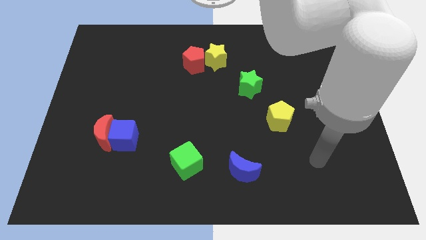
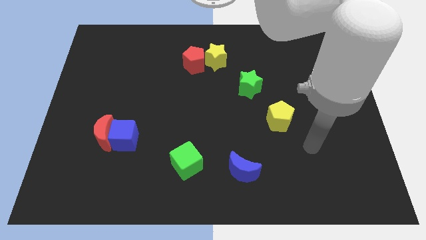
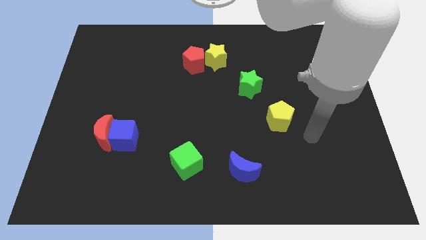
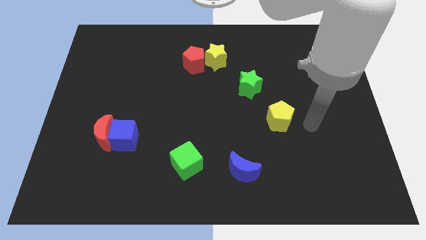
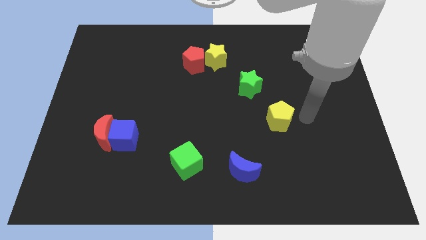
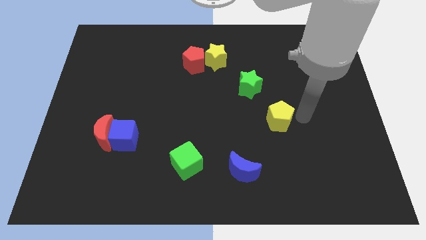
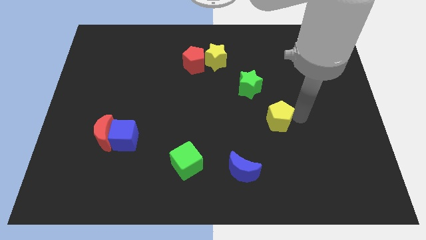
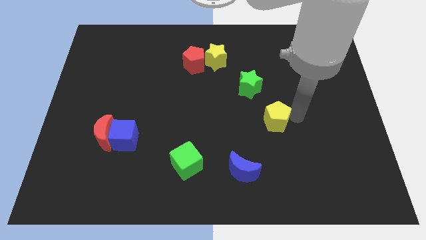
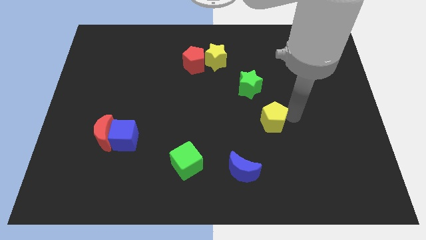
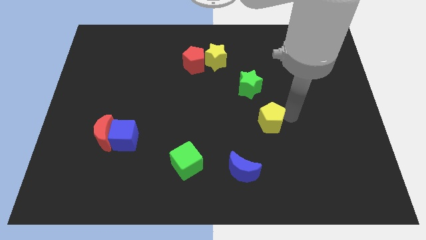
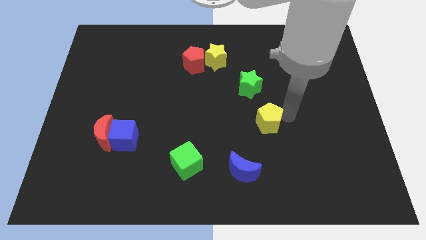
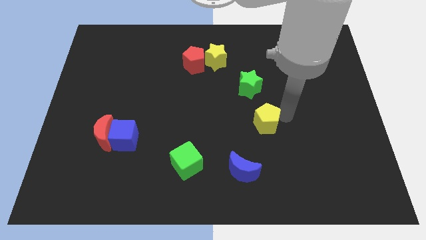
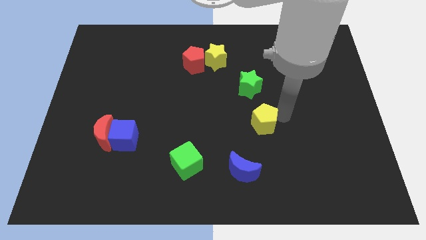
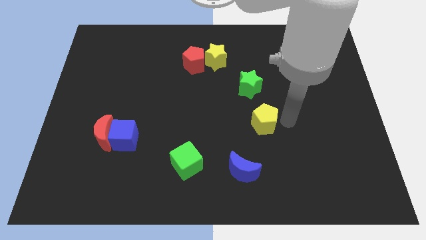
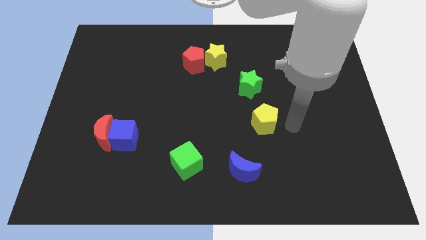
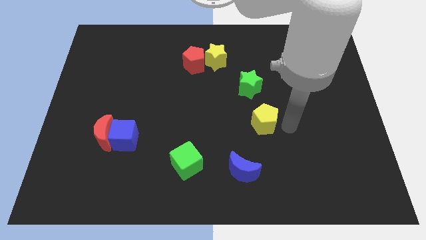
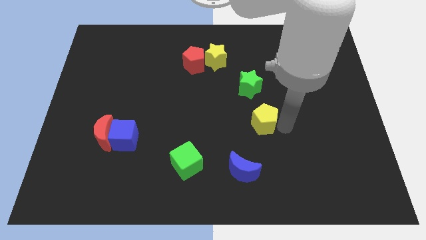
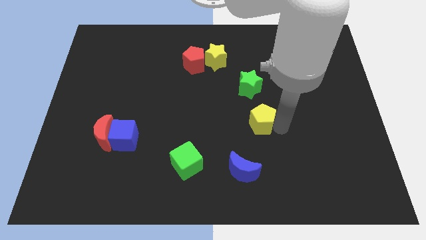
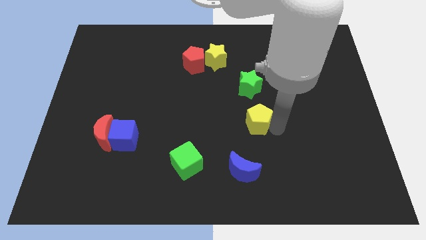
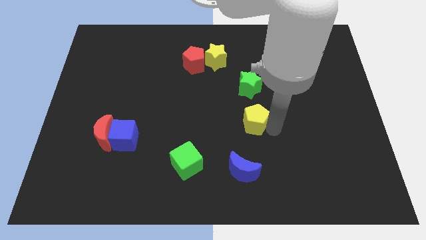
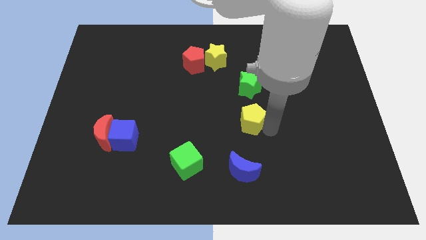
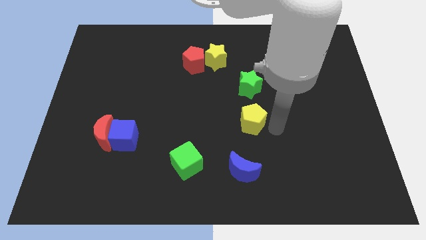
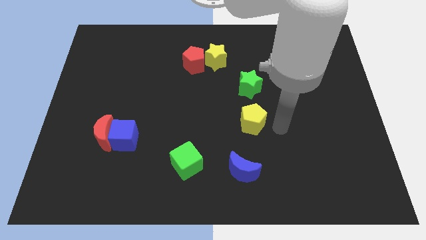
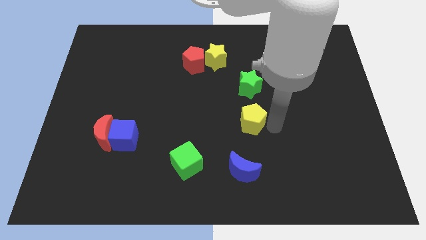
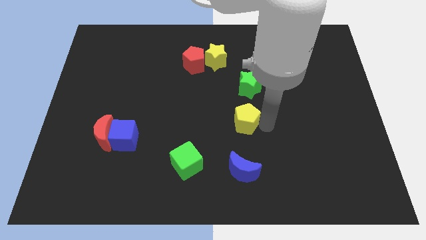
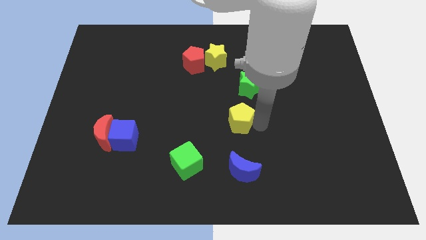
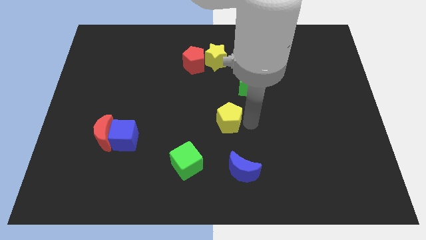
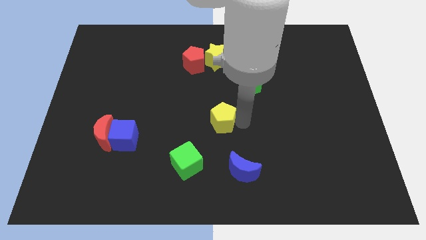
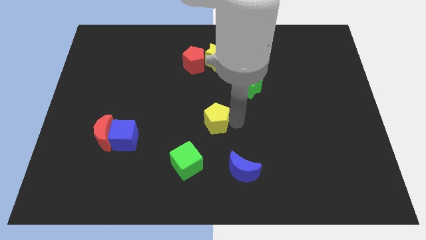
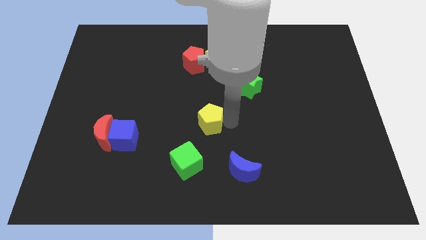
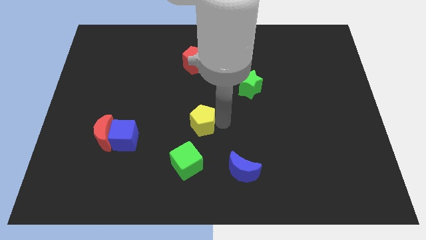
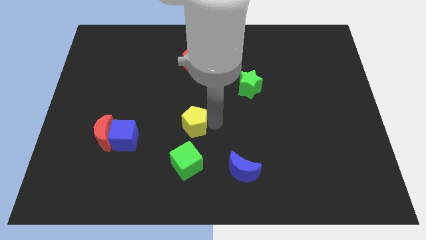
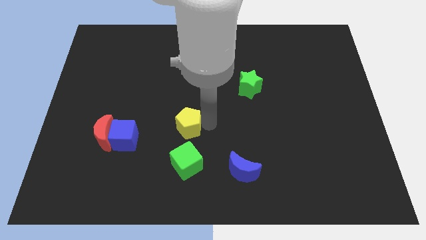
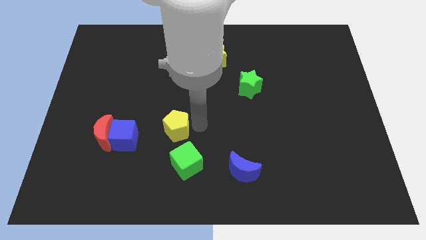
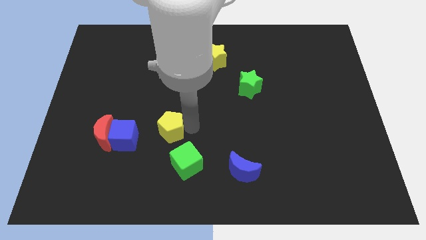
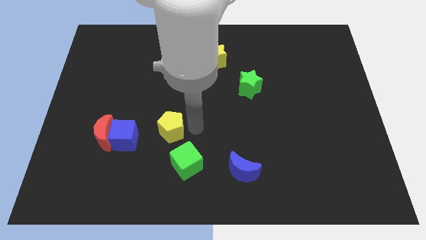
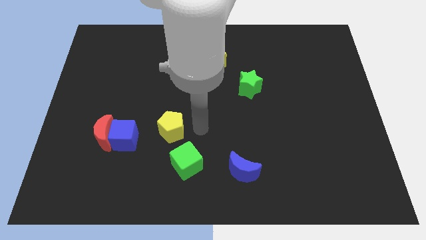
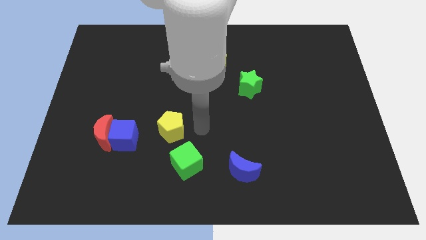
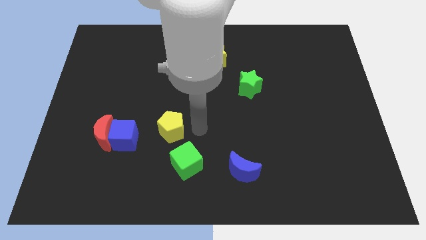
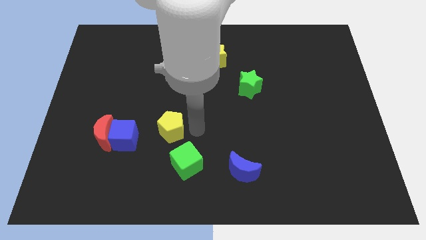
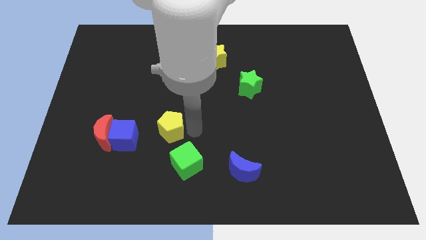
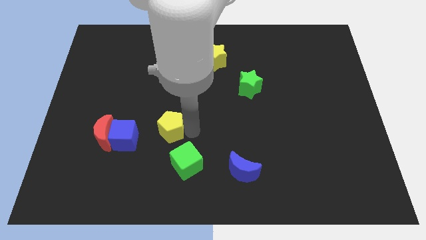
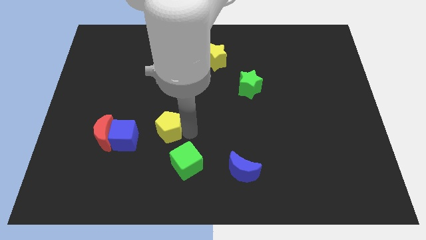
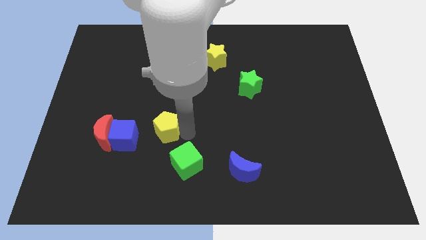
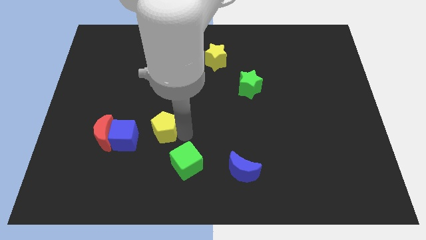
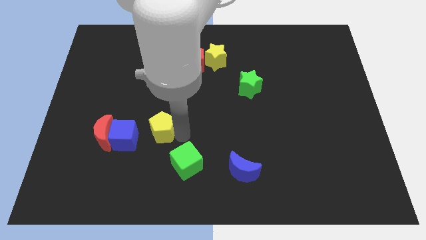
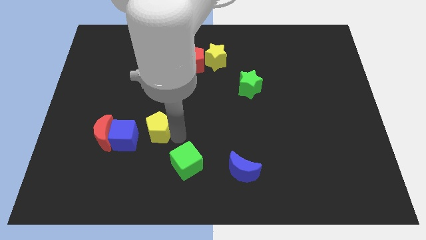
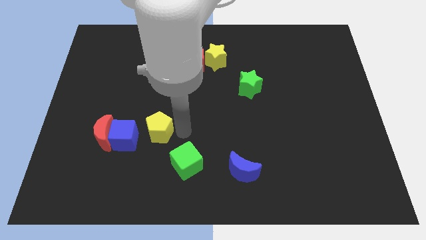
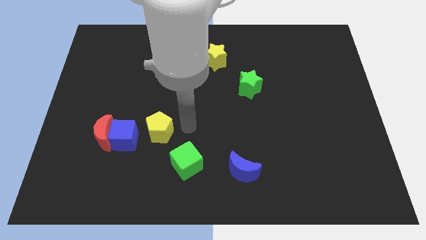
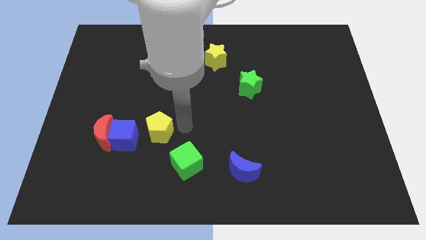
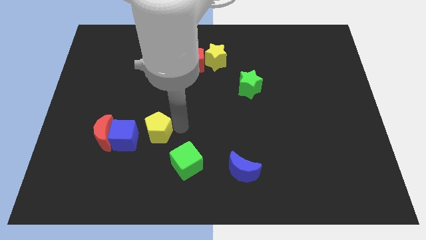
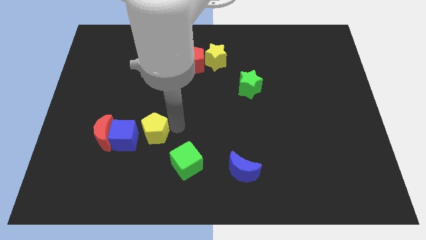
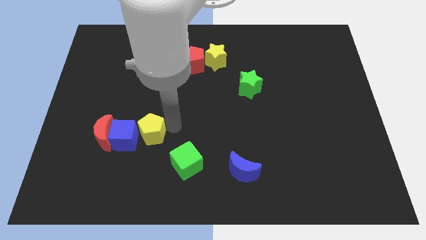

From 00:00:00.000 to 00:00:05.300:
push the yellow pentagon to the blue cube

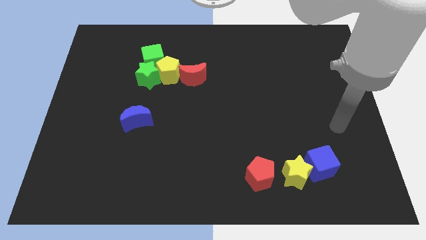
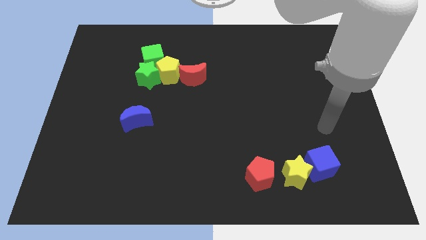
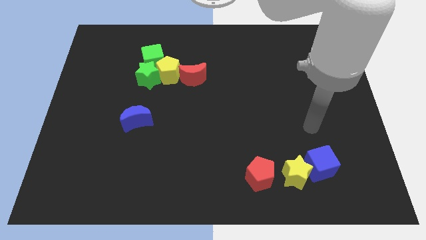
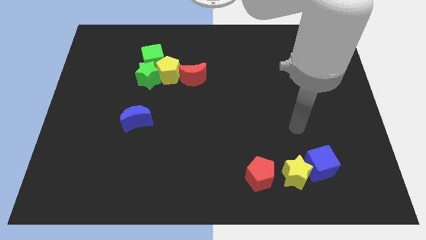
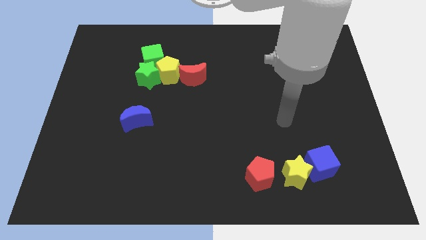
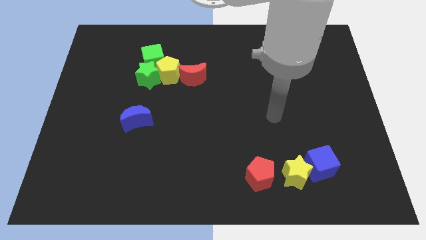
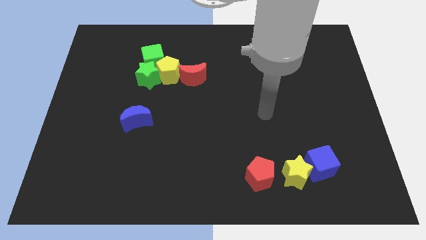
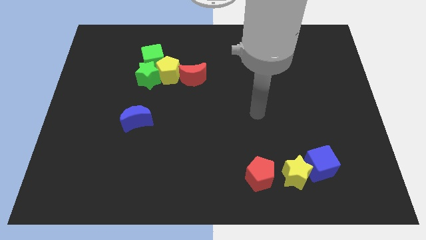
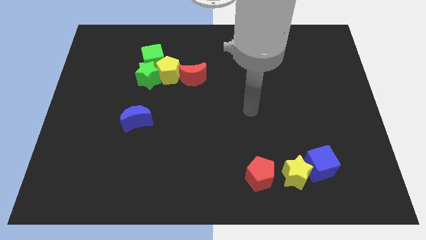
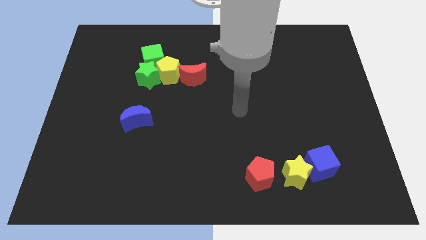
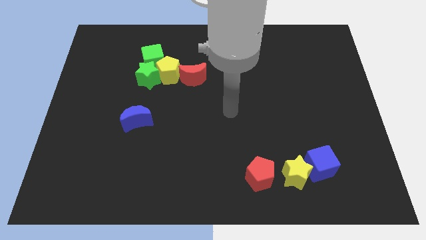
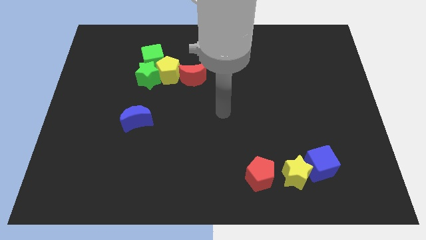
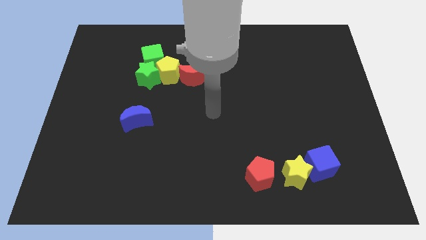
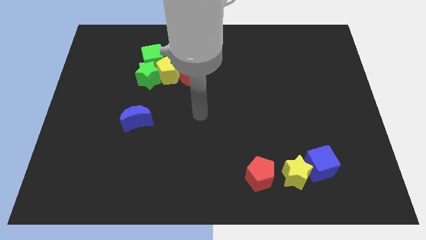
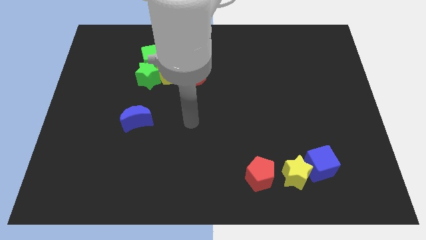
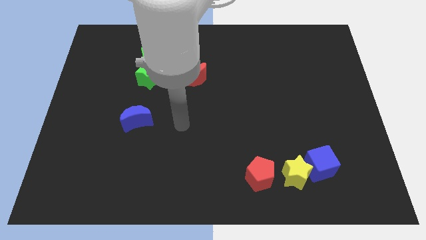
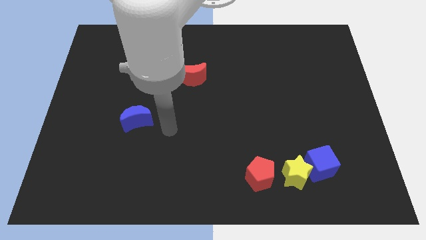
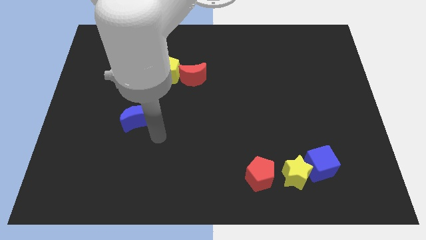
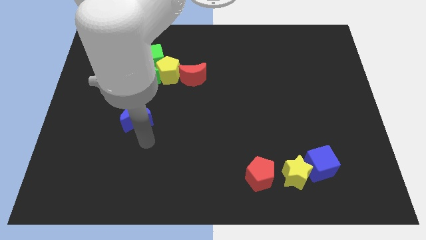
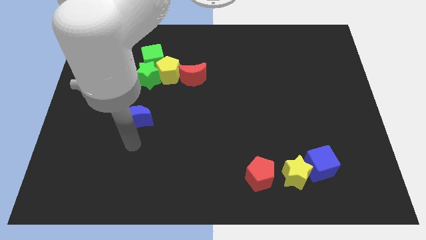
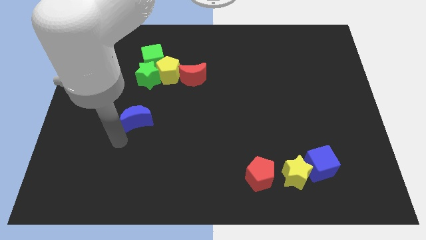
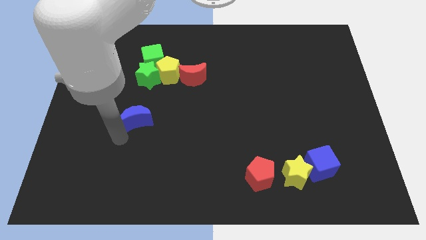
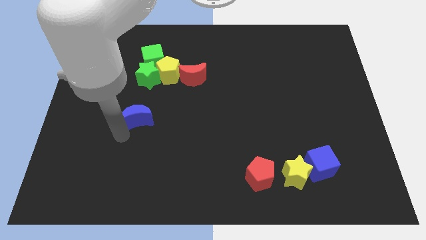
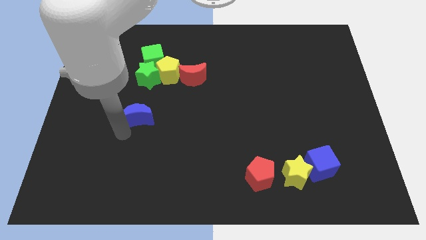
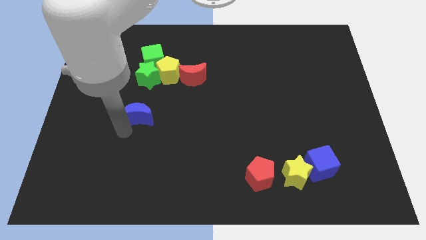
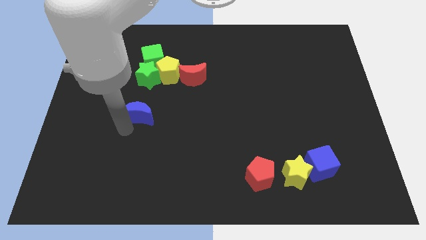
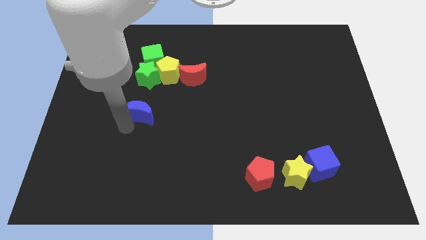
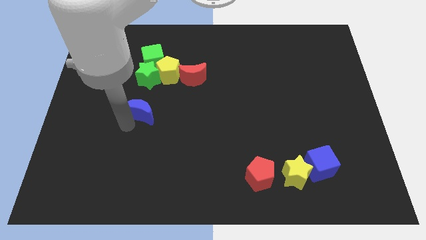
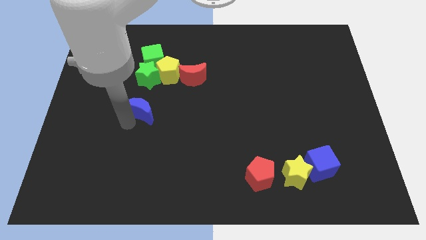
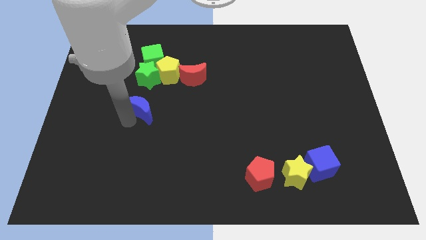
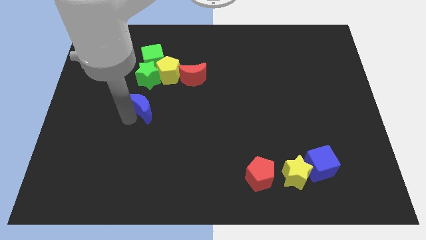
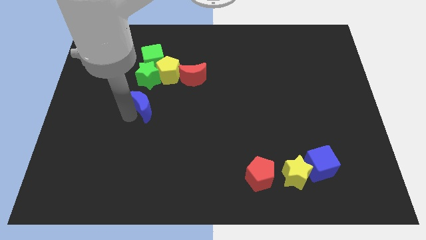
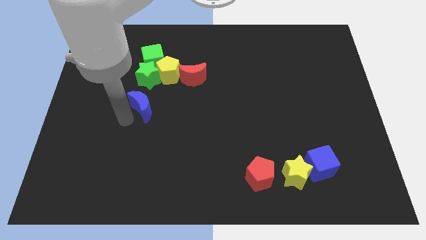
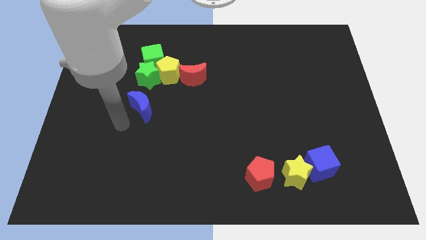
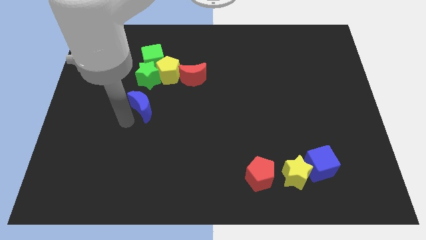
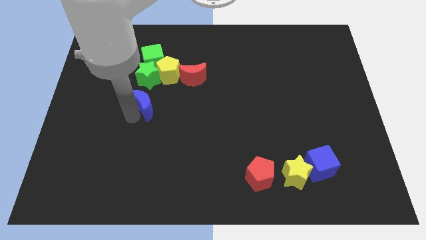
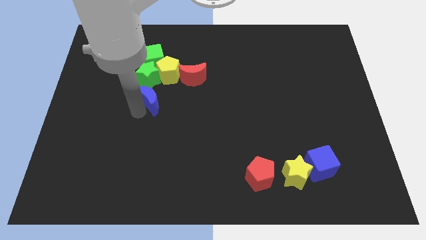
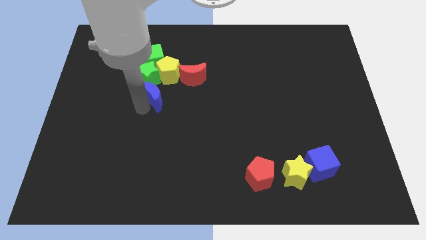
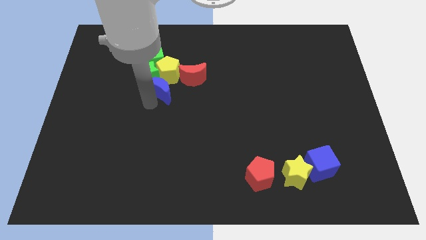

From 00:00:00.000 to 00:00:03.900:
move the blue moon next to the yellow pentagon
